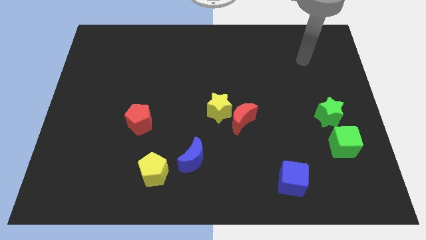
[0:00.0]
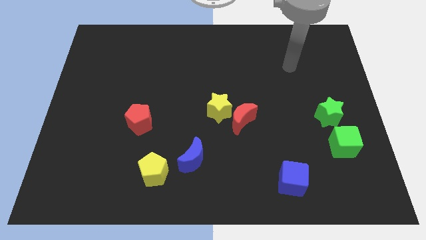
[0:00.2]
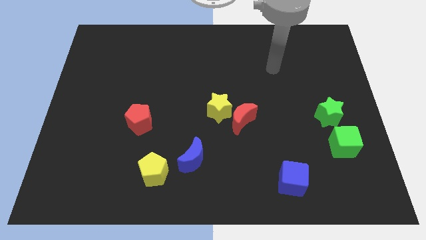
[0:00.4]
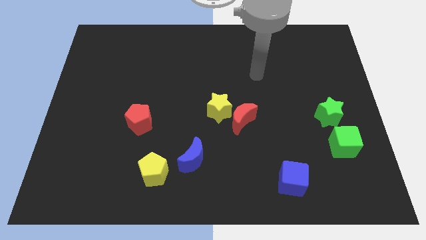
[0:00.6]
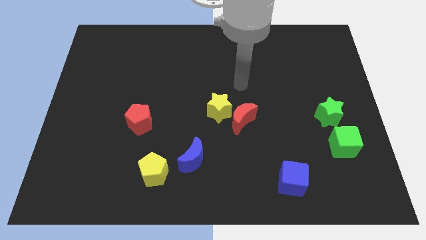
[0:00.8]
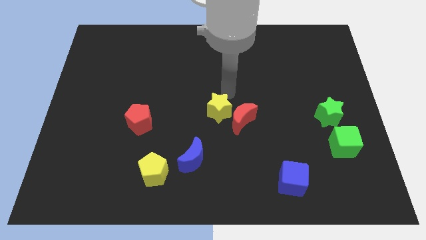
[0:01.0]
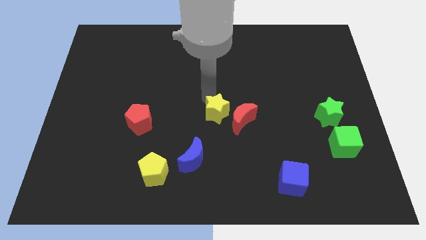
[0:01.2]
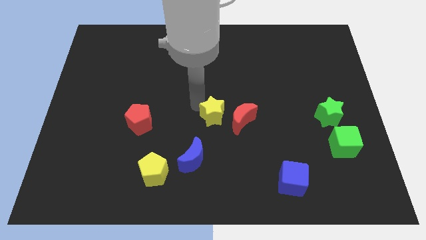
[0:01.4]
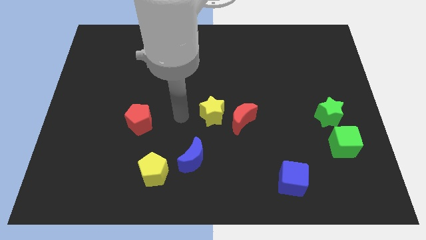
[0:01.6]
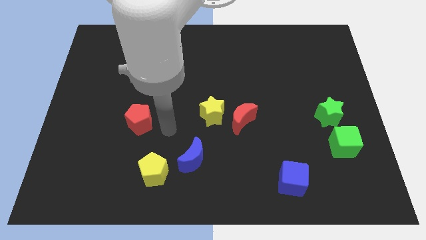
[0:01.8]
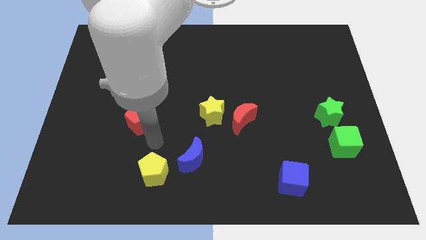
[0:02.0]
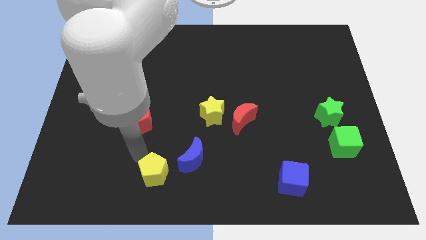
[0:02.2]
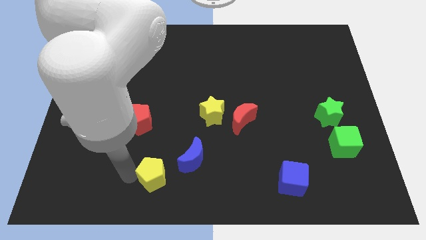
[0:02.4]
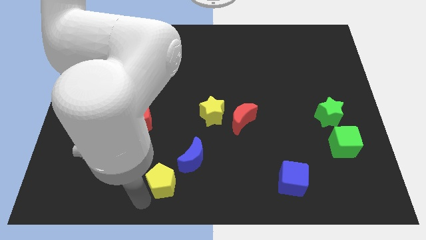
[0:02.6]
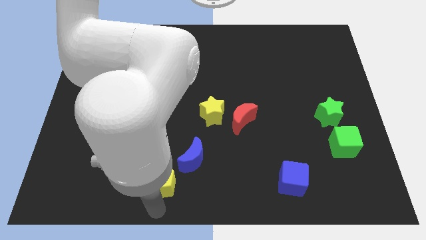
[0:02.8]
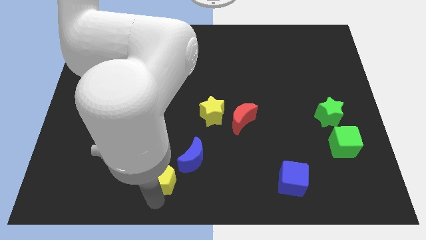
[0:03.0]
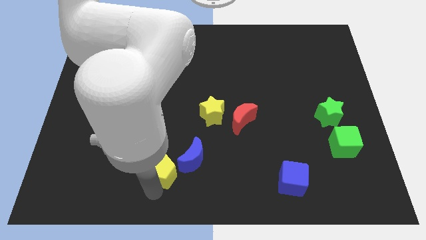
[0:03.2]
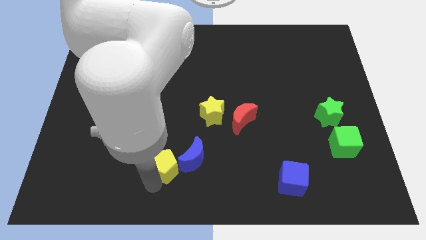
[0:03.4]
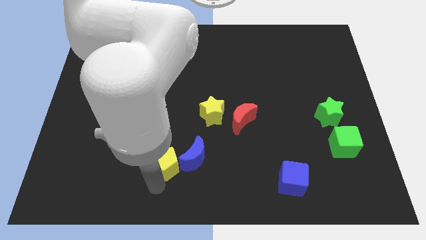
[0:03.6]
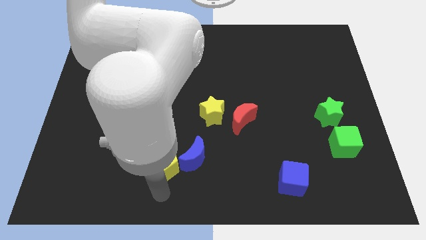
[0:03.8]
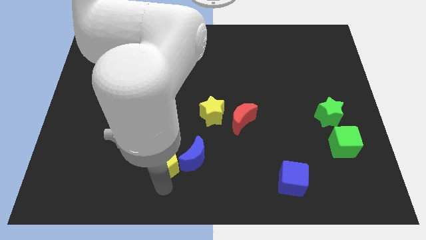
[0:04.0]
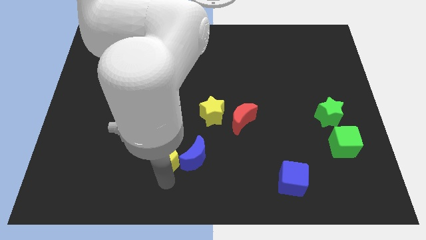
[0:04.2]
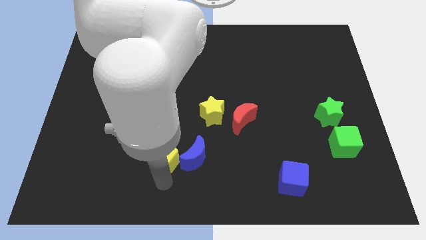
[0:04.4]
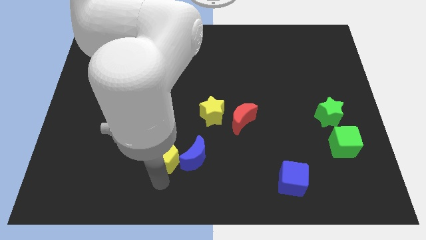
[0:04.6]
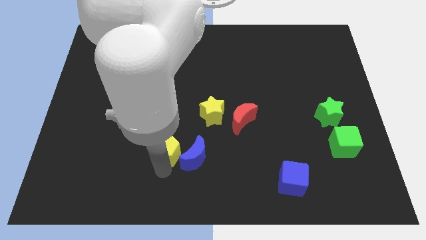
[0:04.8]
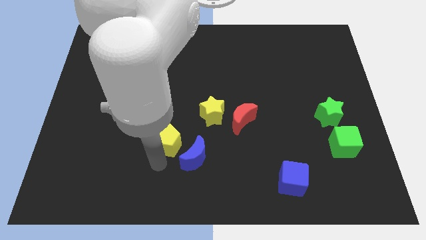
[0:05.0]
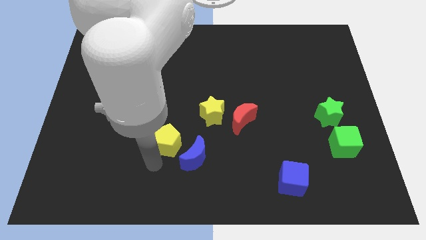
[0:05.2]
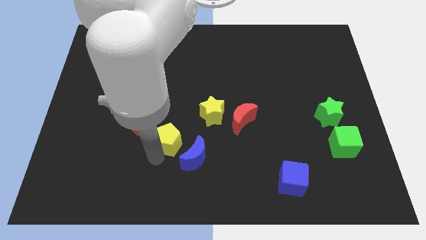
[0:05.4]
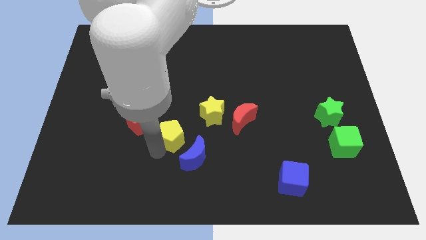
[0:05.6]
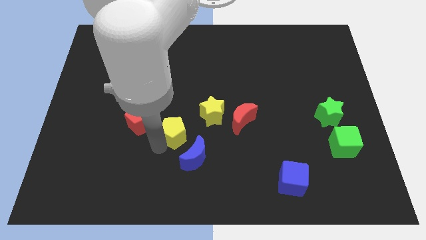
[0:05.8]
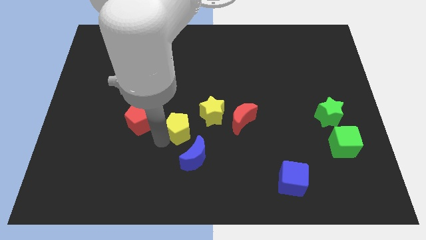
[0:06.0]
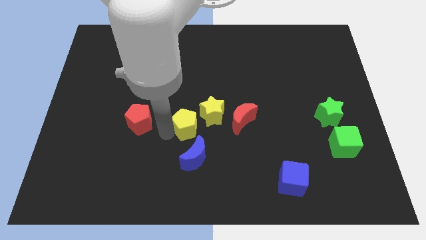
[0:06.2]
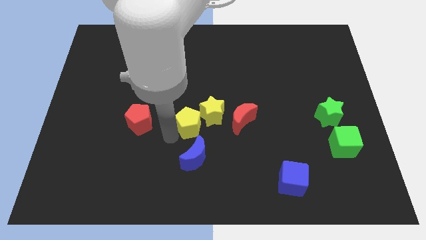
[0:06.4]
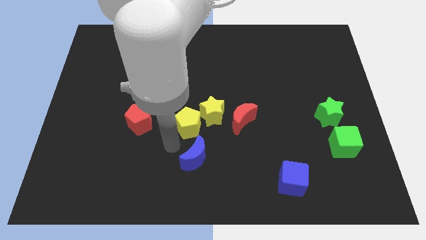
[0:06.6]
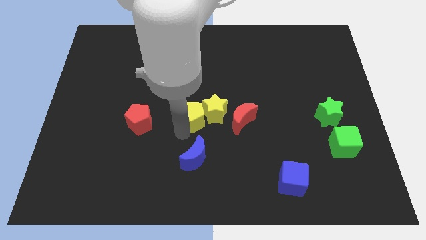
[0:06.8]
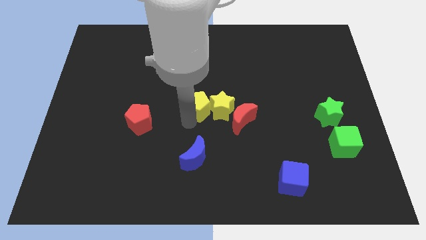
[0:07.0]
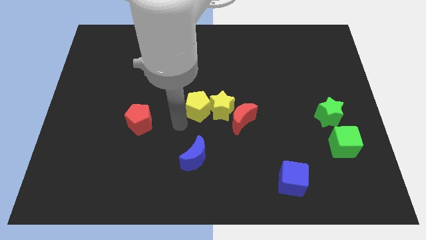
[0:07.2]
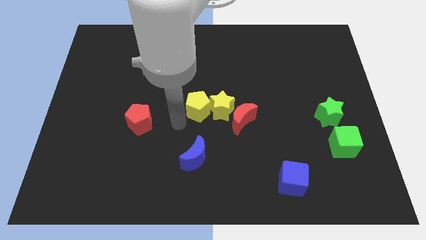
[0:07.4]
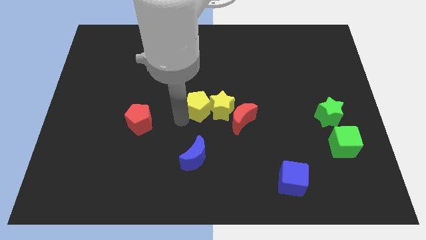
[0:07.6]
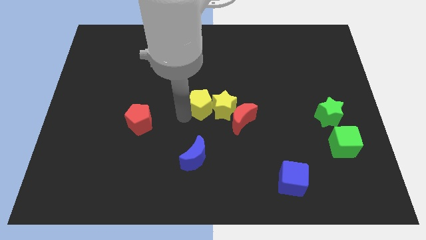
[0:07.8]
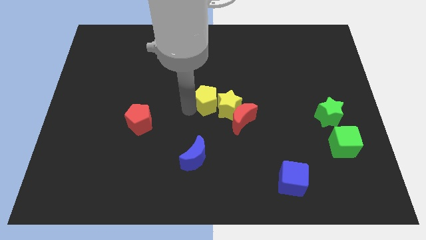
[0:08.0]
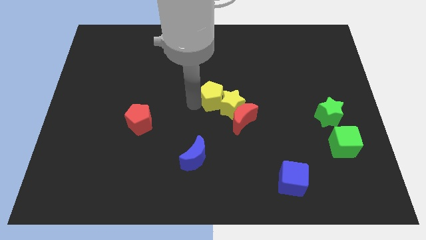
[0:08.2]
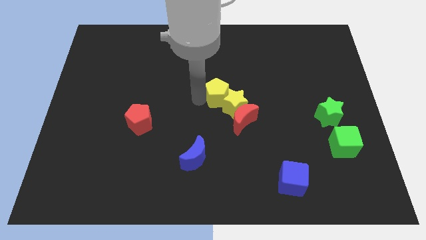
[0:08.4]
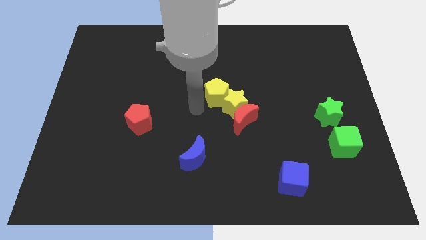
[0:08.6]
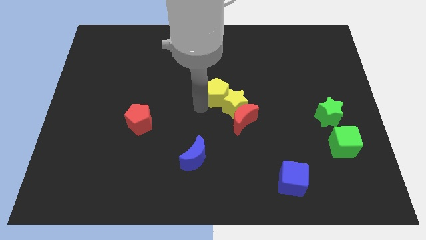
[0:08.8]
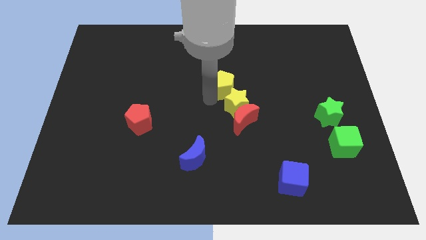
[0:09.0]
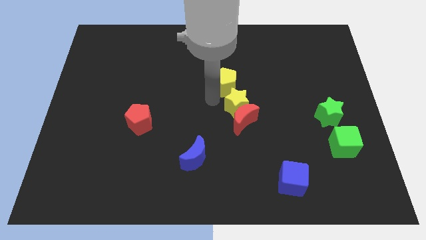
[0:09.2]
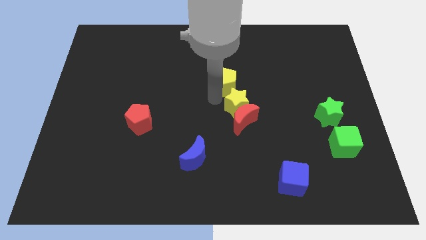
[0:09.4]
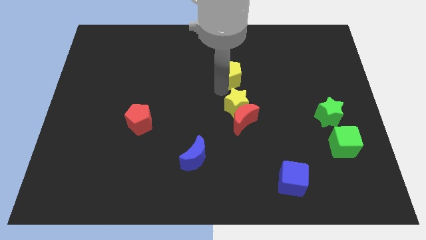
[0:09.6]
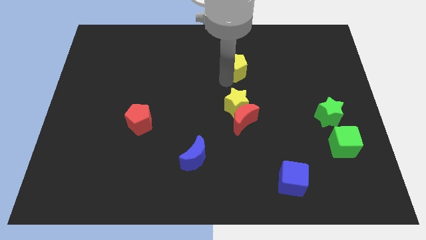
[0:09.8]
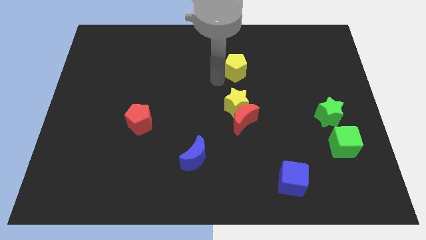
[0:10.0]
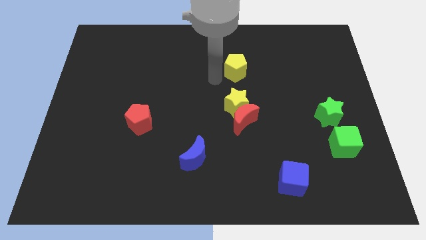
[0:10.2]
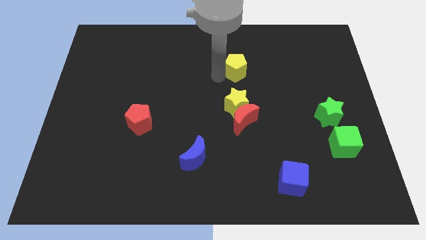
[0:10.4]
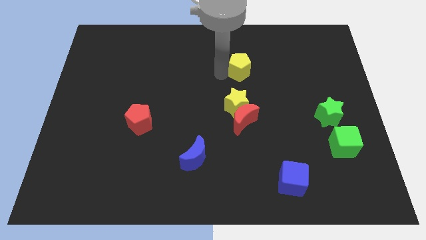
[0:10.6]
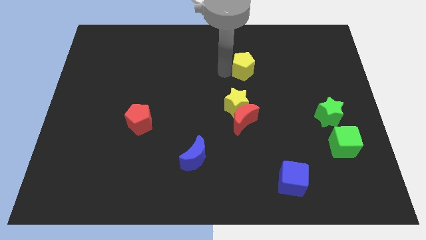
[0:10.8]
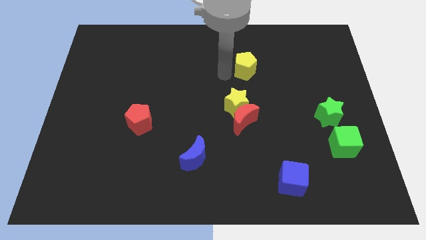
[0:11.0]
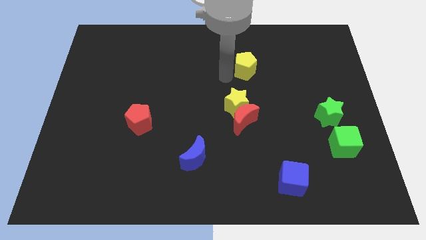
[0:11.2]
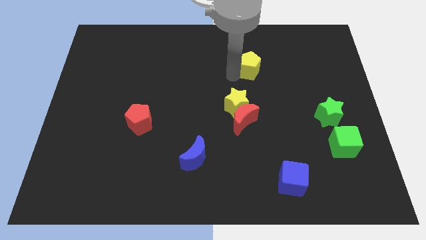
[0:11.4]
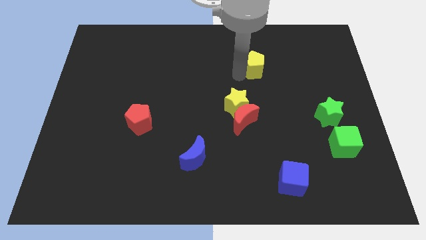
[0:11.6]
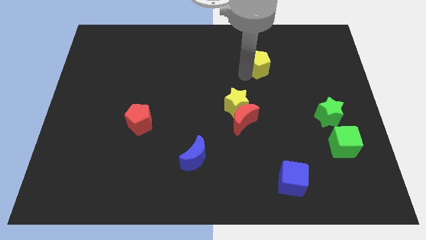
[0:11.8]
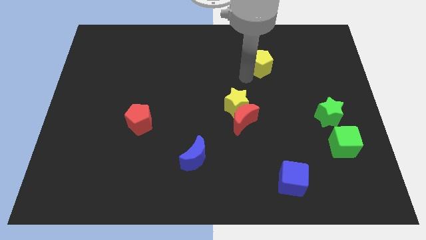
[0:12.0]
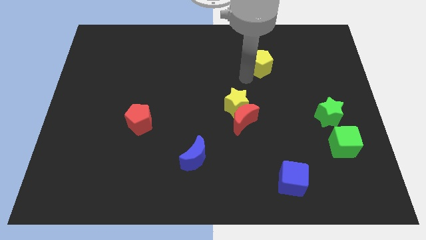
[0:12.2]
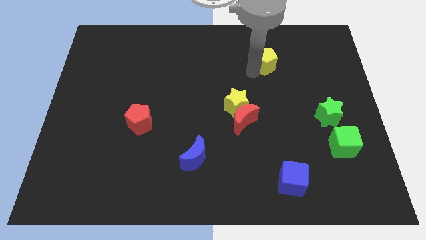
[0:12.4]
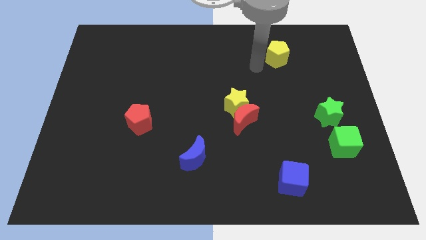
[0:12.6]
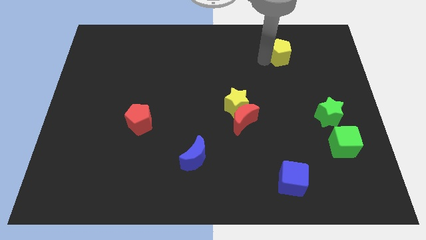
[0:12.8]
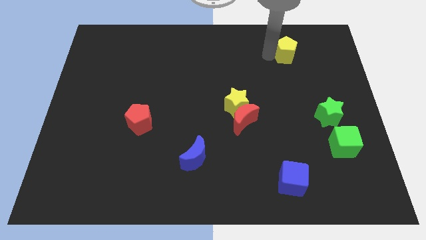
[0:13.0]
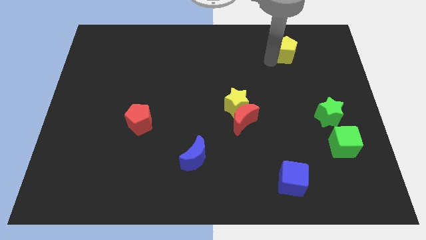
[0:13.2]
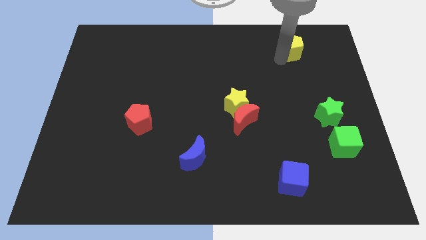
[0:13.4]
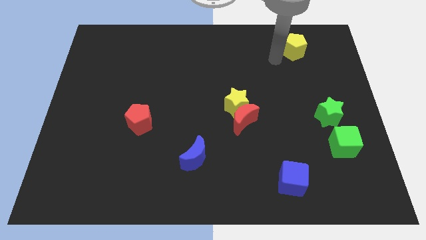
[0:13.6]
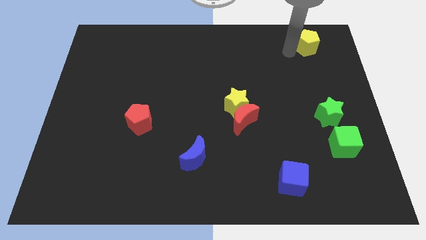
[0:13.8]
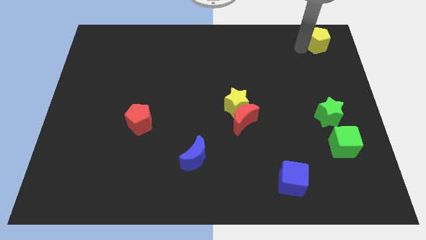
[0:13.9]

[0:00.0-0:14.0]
put the yellow pentagon to the top right of the board
